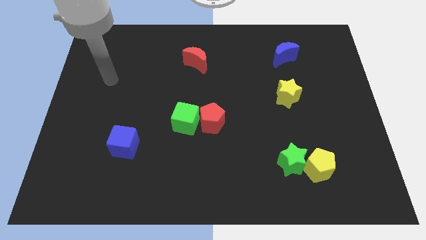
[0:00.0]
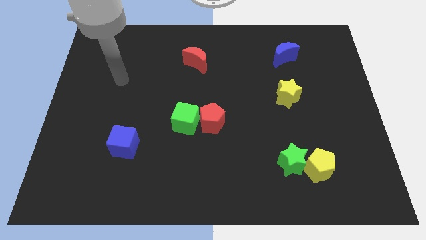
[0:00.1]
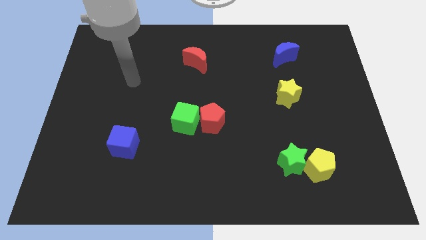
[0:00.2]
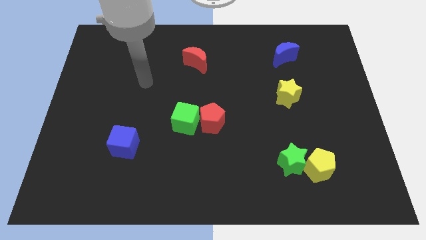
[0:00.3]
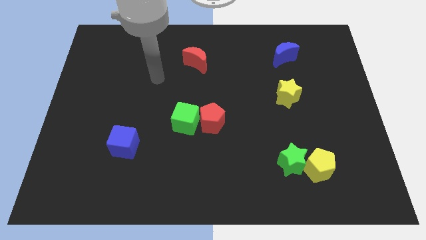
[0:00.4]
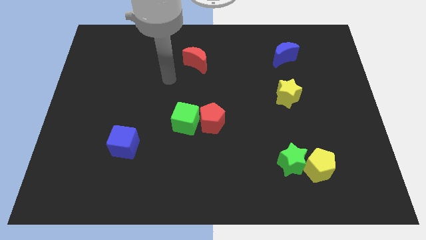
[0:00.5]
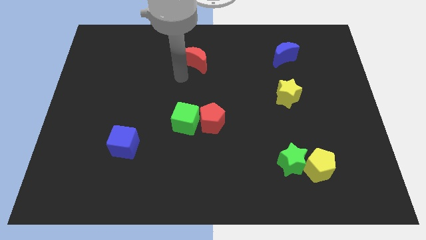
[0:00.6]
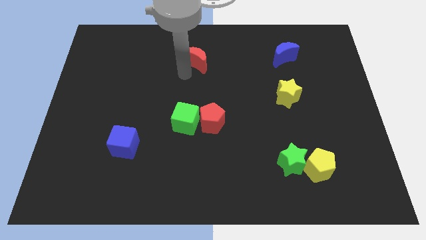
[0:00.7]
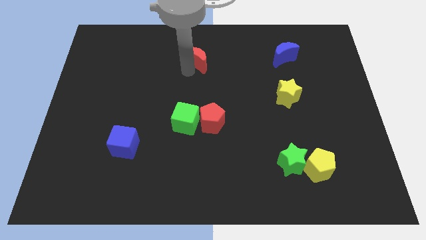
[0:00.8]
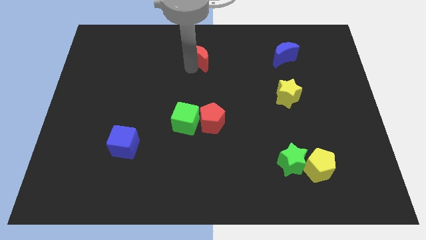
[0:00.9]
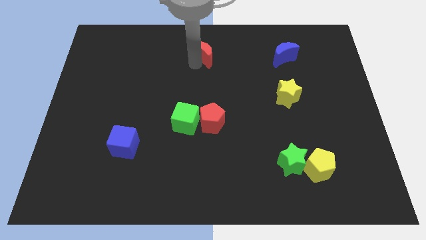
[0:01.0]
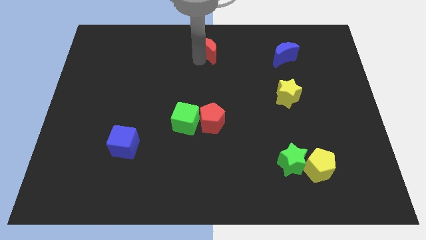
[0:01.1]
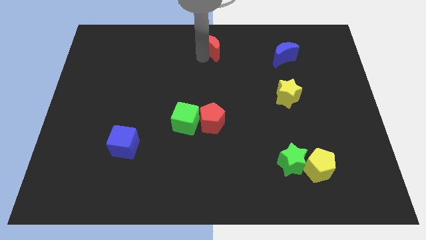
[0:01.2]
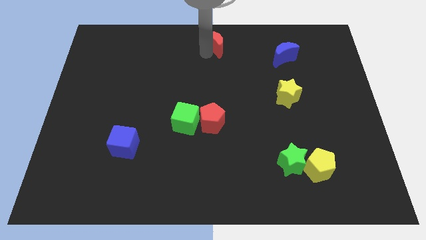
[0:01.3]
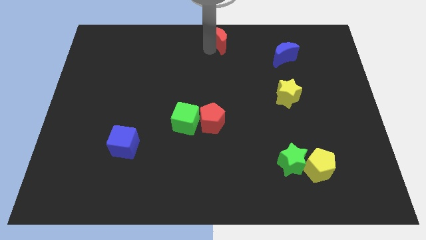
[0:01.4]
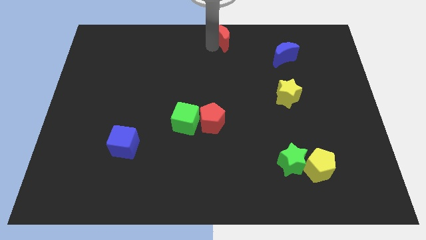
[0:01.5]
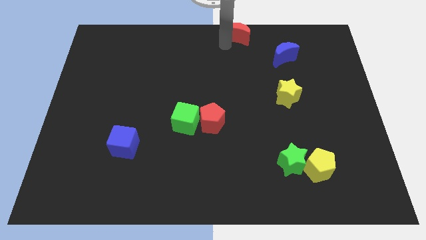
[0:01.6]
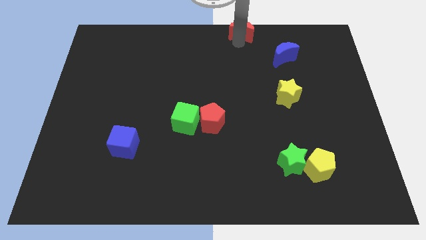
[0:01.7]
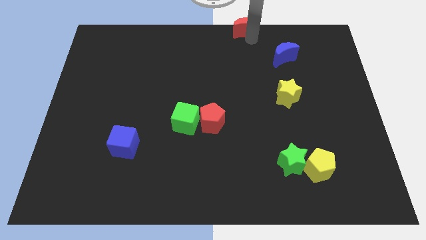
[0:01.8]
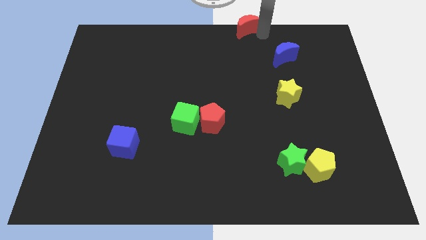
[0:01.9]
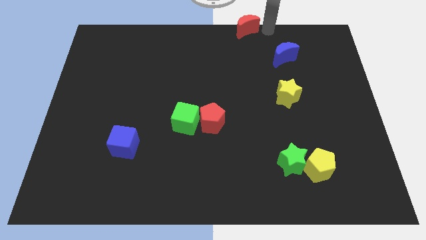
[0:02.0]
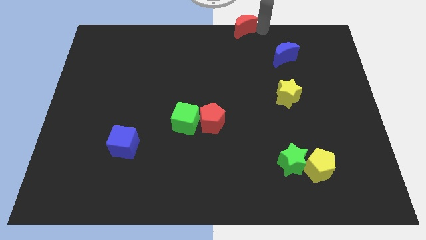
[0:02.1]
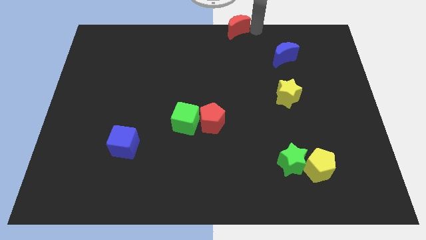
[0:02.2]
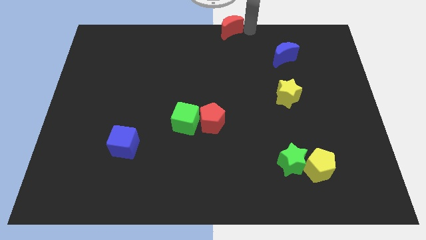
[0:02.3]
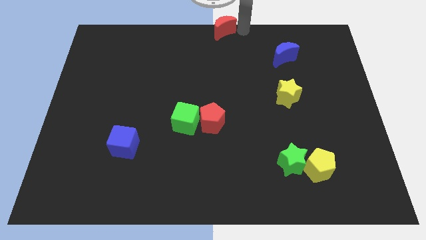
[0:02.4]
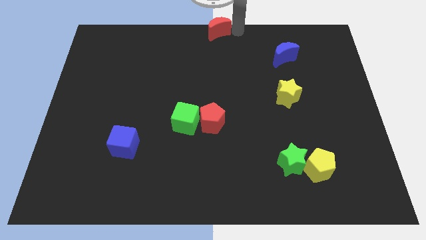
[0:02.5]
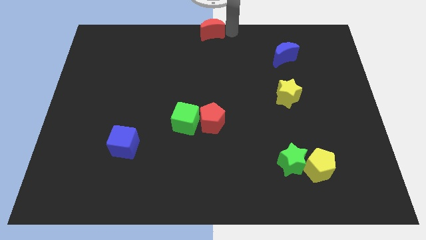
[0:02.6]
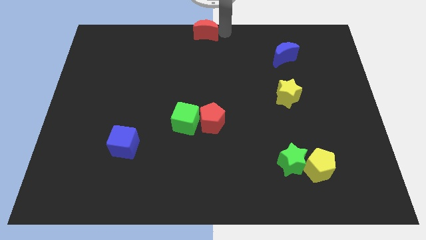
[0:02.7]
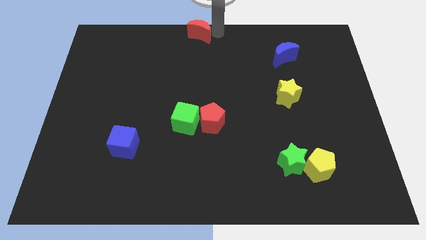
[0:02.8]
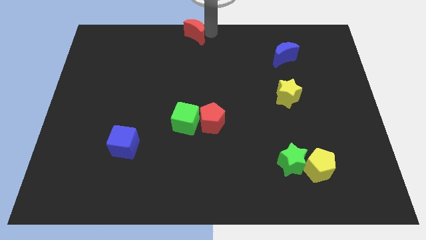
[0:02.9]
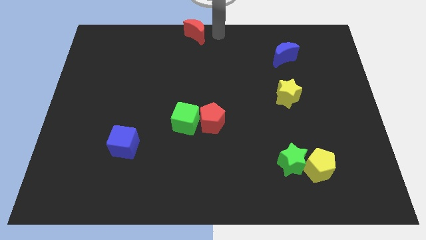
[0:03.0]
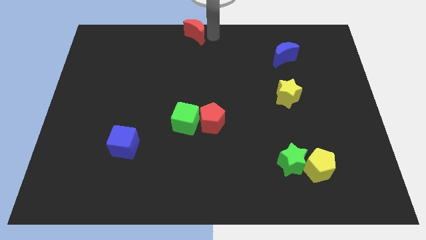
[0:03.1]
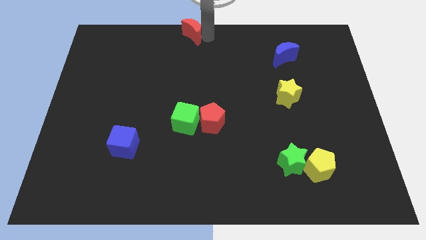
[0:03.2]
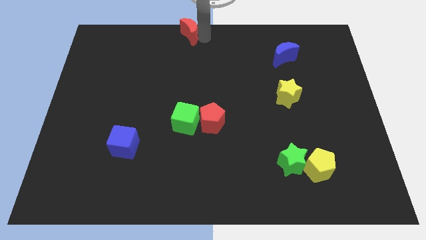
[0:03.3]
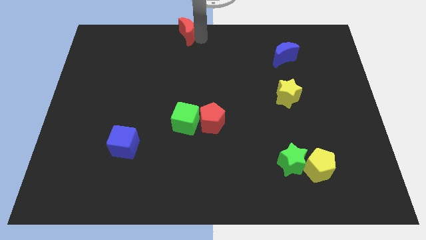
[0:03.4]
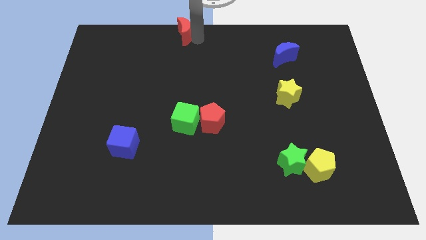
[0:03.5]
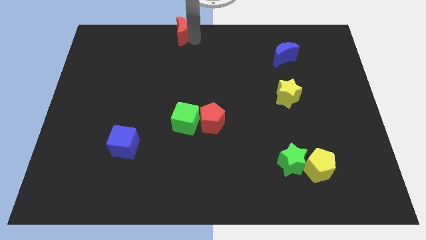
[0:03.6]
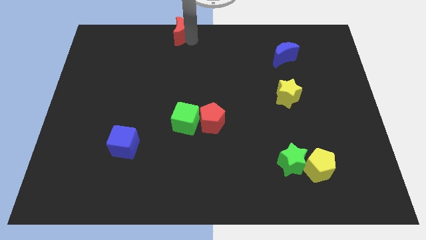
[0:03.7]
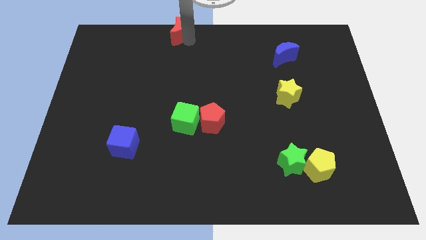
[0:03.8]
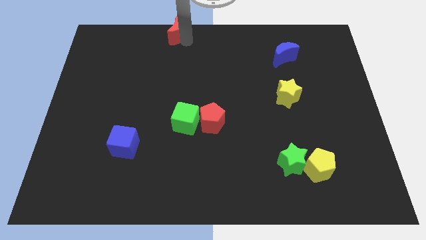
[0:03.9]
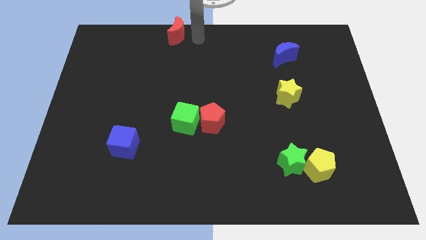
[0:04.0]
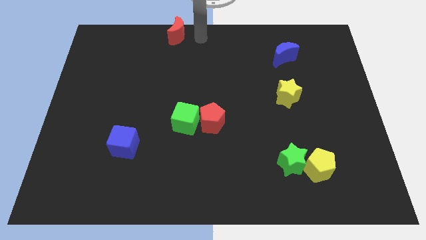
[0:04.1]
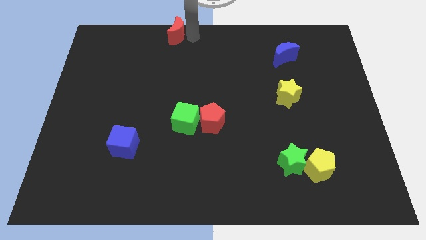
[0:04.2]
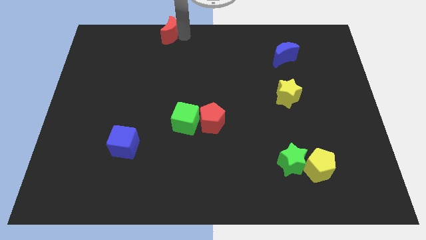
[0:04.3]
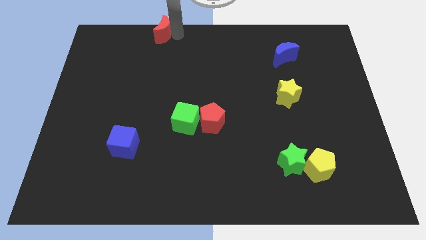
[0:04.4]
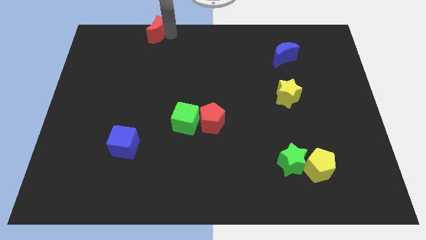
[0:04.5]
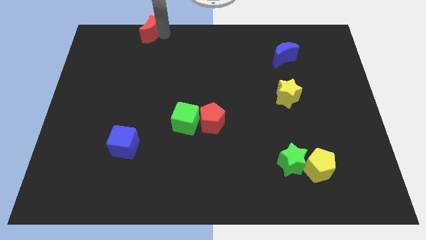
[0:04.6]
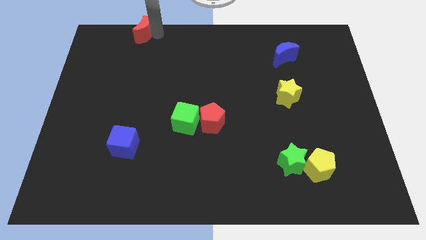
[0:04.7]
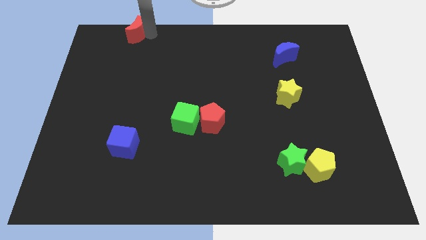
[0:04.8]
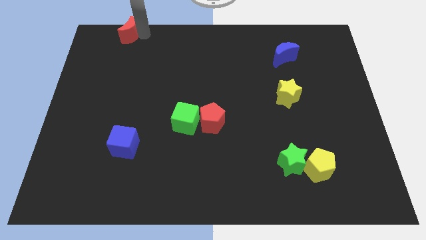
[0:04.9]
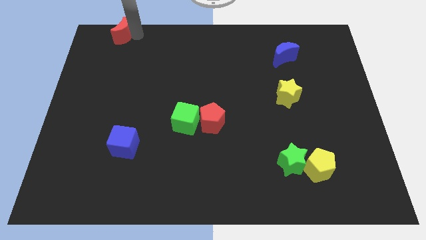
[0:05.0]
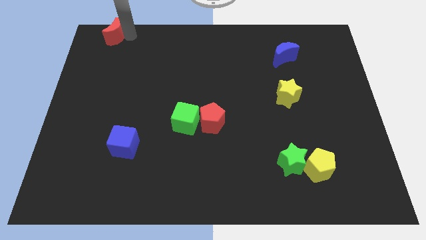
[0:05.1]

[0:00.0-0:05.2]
slide the red moon to the top left corner

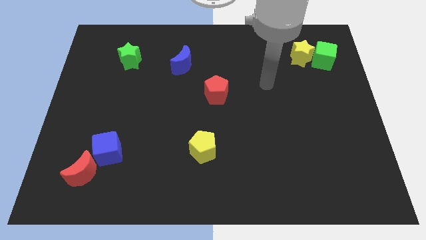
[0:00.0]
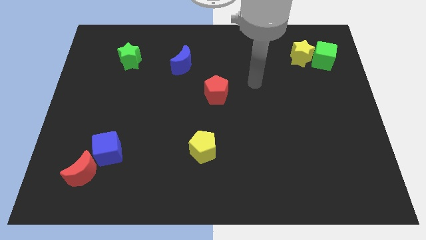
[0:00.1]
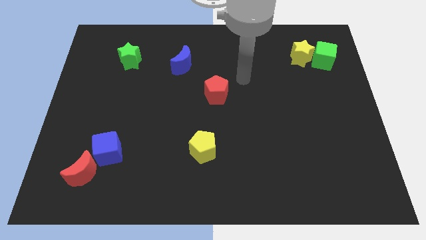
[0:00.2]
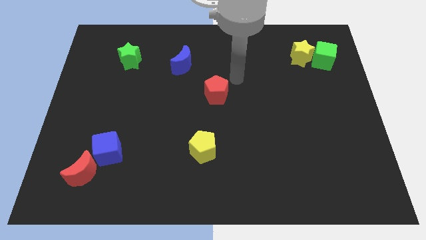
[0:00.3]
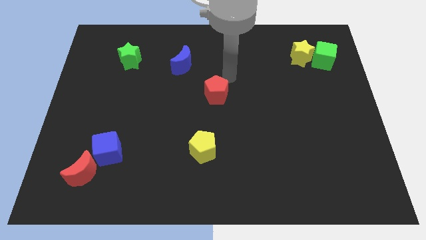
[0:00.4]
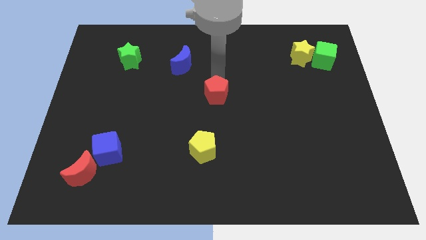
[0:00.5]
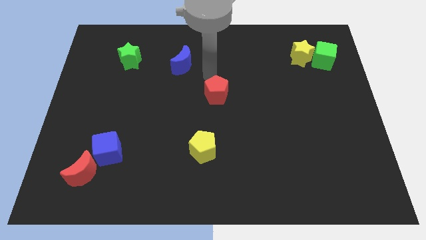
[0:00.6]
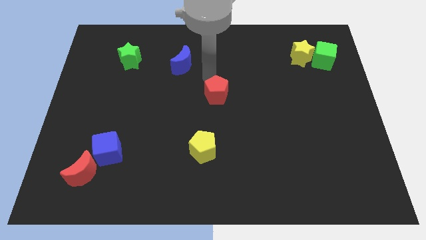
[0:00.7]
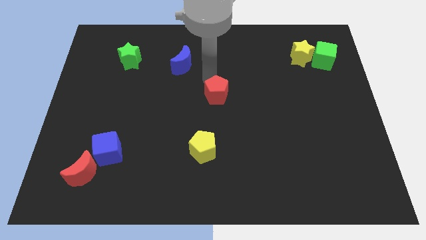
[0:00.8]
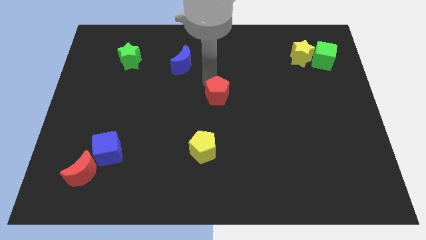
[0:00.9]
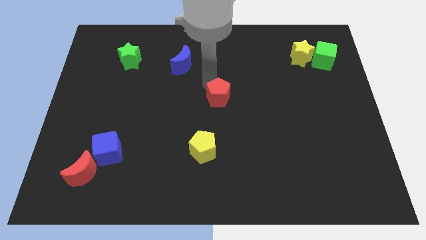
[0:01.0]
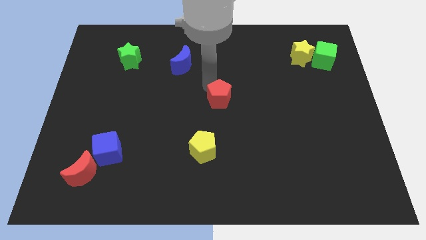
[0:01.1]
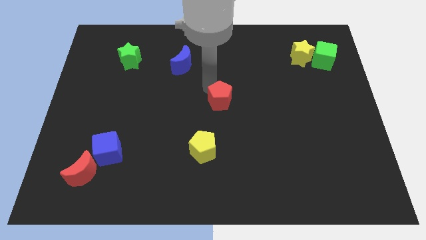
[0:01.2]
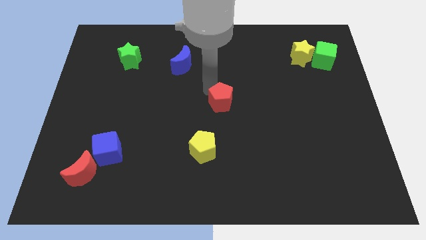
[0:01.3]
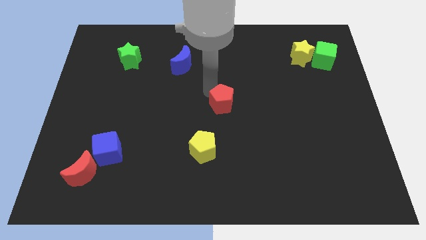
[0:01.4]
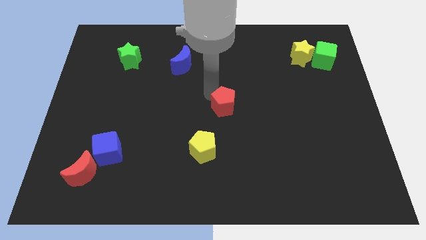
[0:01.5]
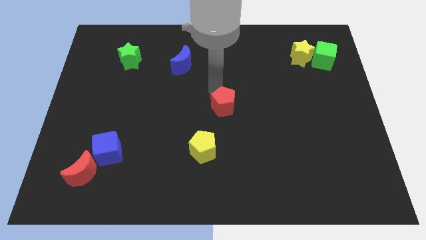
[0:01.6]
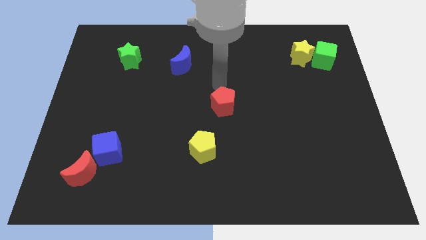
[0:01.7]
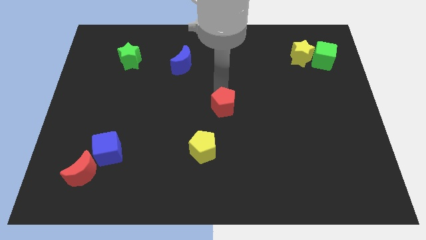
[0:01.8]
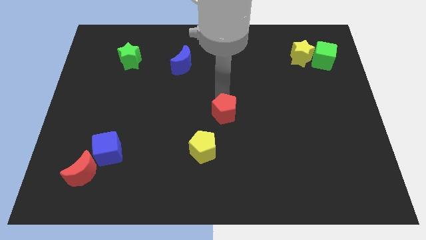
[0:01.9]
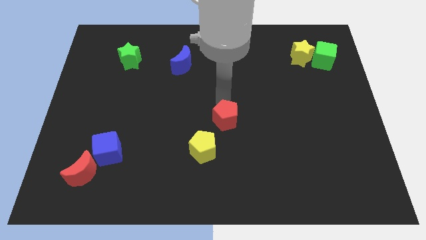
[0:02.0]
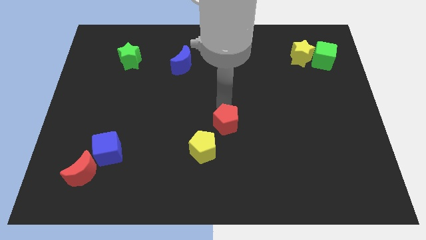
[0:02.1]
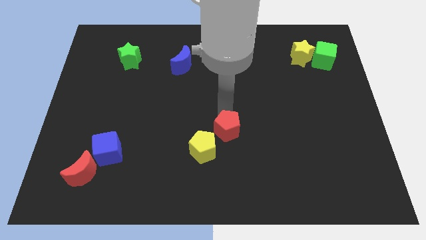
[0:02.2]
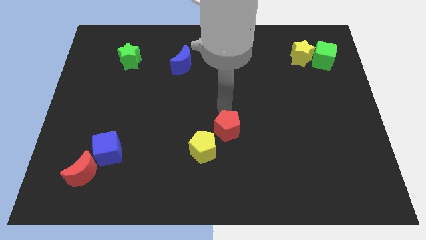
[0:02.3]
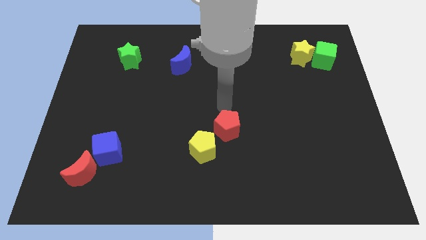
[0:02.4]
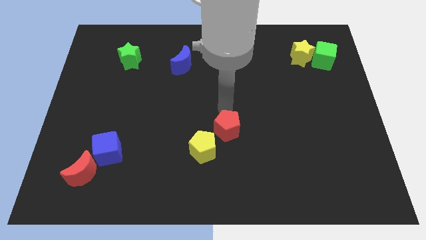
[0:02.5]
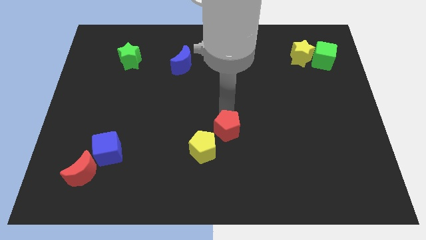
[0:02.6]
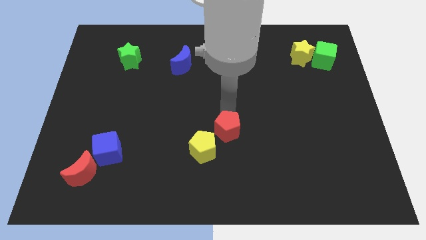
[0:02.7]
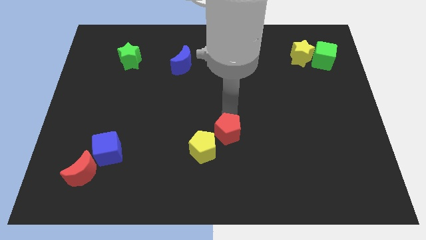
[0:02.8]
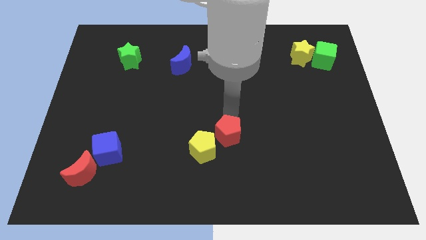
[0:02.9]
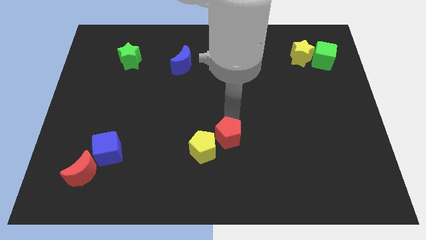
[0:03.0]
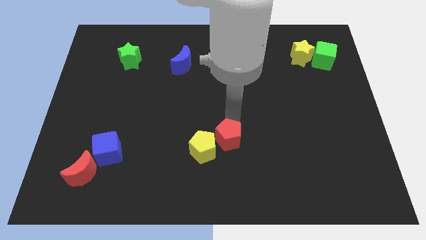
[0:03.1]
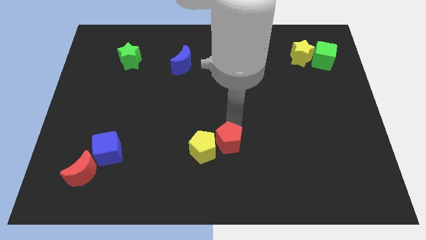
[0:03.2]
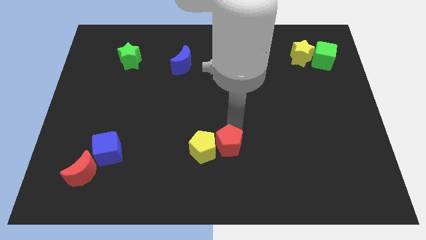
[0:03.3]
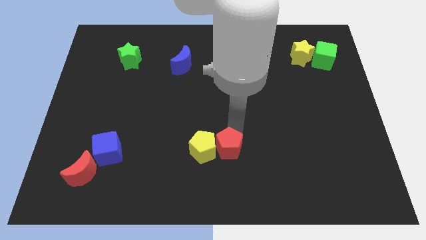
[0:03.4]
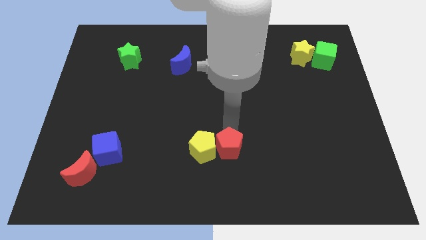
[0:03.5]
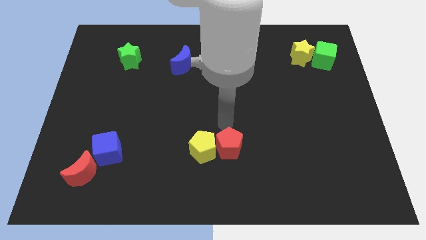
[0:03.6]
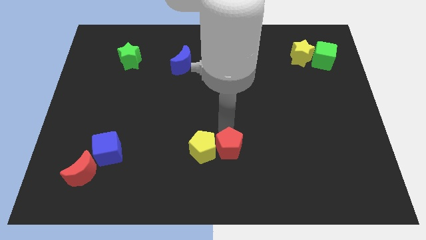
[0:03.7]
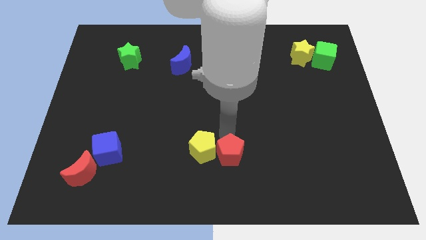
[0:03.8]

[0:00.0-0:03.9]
put the red pentagon to the bottom
